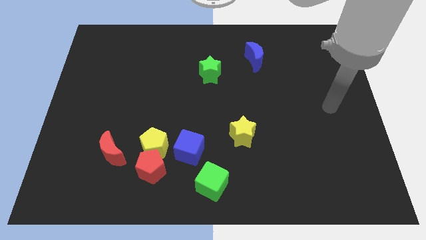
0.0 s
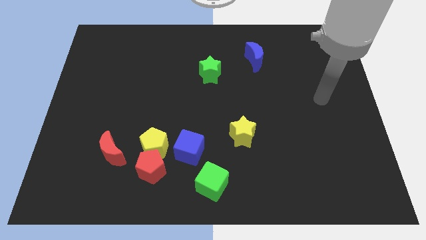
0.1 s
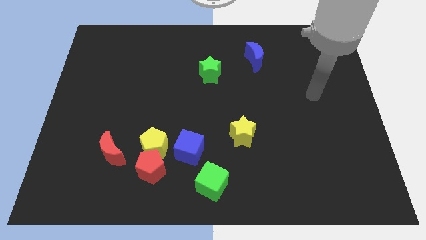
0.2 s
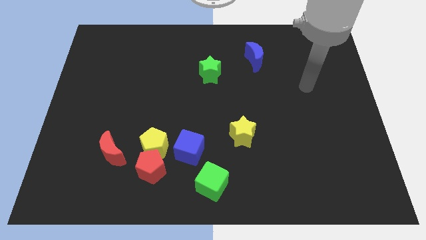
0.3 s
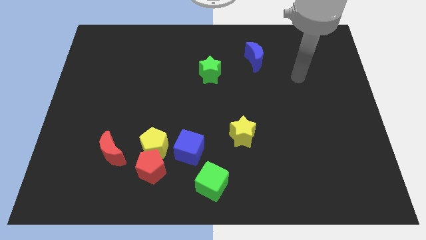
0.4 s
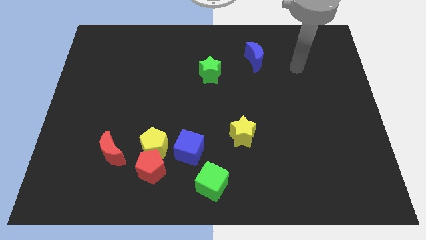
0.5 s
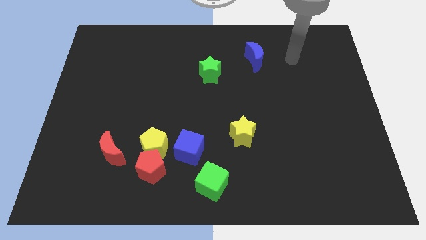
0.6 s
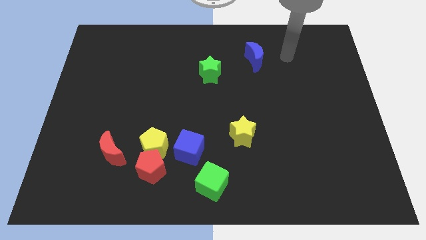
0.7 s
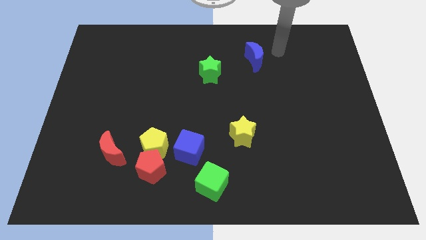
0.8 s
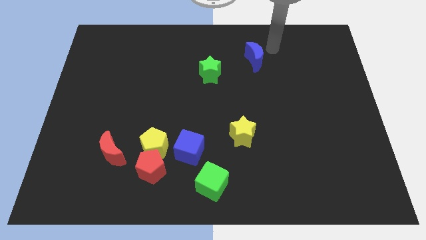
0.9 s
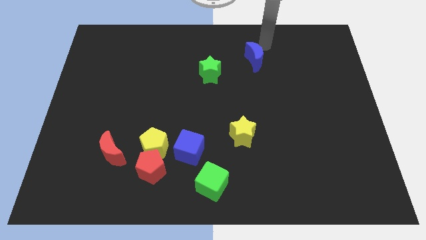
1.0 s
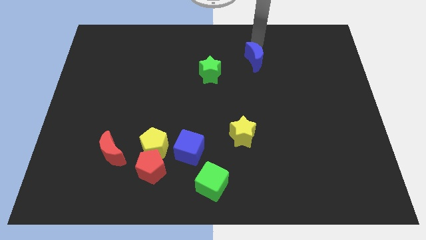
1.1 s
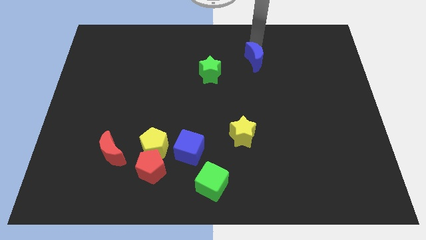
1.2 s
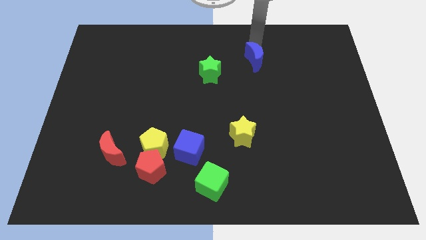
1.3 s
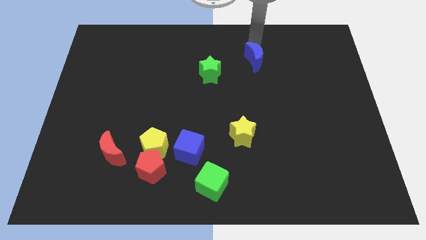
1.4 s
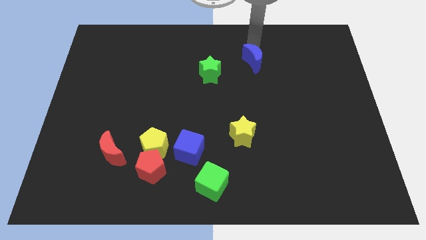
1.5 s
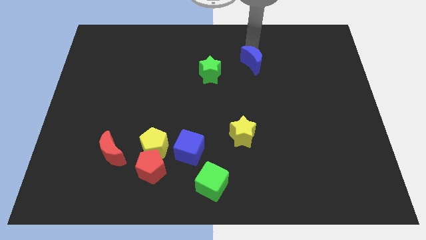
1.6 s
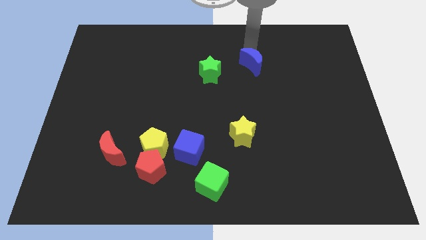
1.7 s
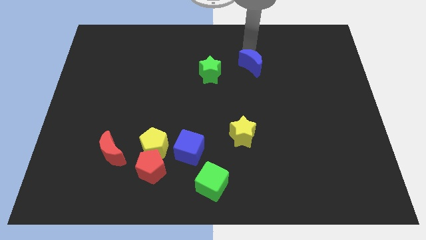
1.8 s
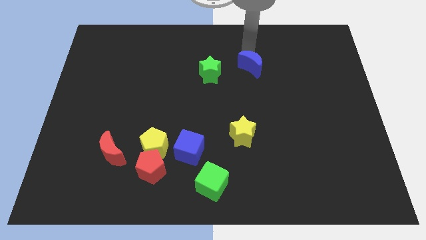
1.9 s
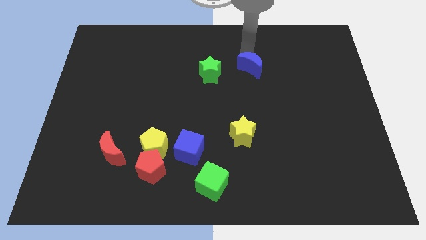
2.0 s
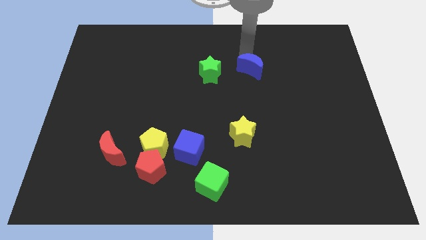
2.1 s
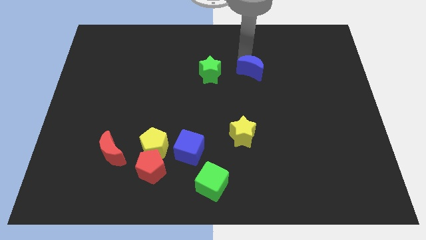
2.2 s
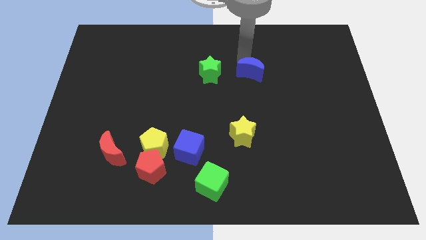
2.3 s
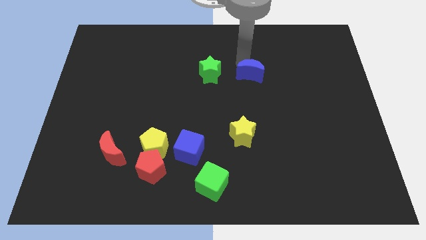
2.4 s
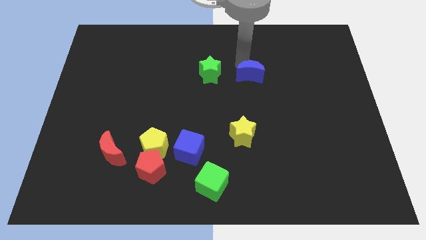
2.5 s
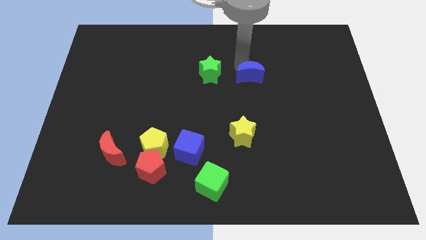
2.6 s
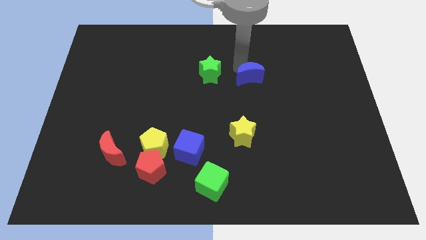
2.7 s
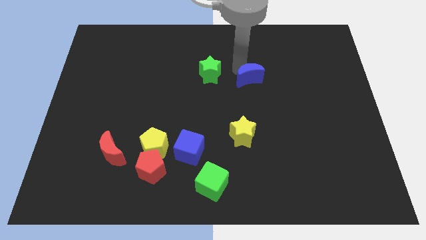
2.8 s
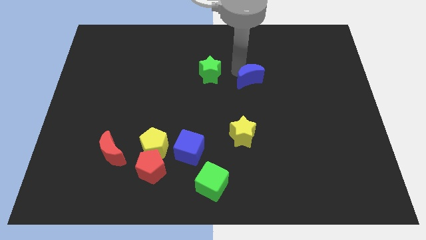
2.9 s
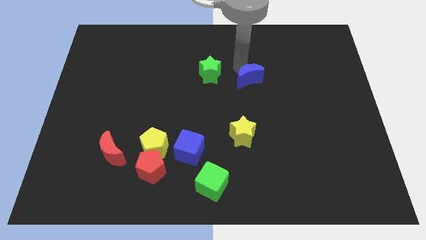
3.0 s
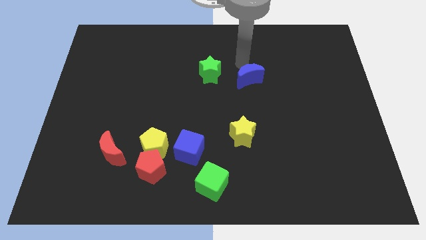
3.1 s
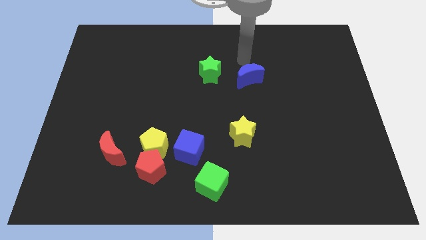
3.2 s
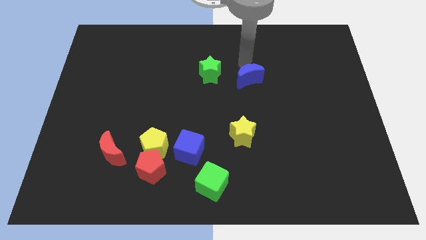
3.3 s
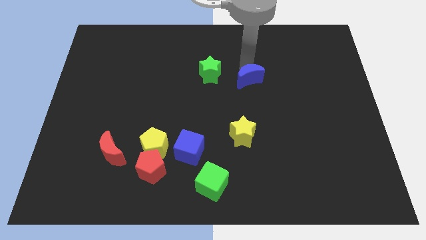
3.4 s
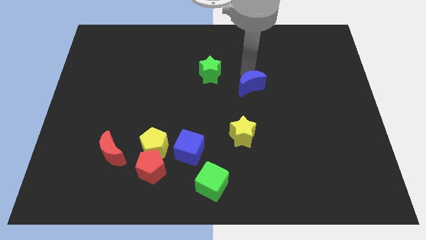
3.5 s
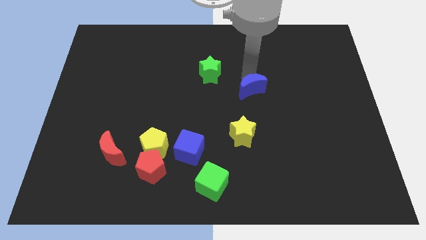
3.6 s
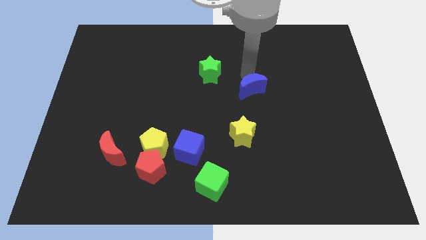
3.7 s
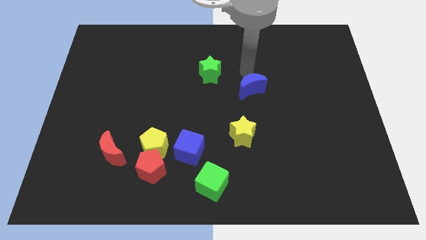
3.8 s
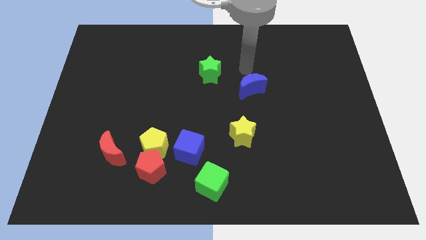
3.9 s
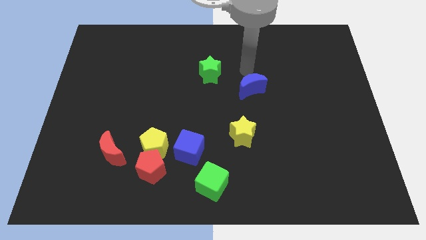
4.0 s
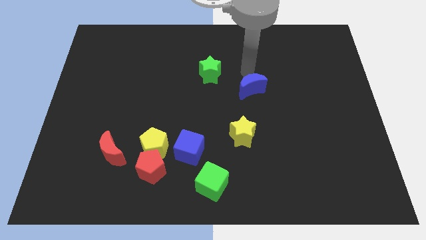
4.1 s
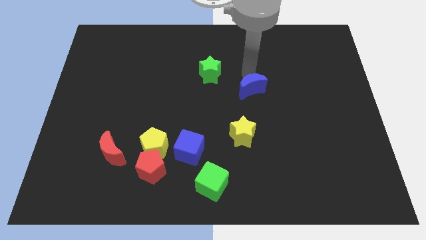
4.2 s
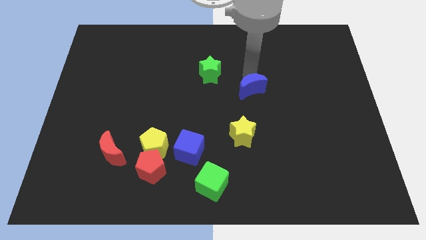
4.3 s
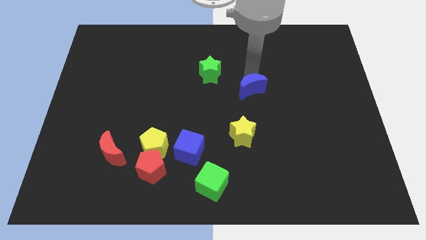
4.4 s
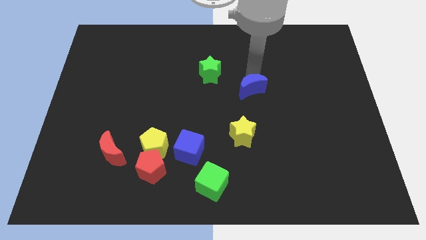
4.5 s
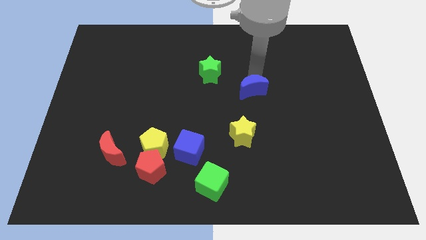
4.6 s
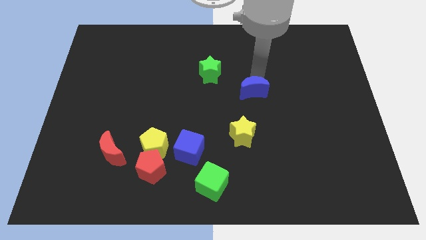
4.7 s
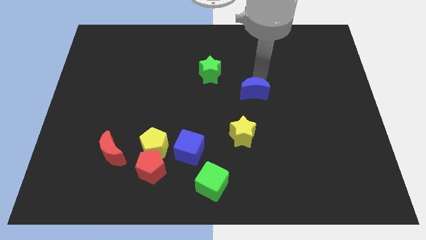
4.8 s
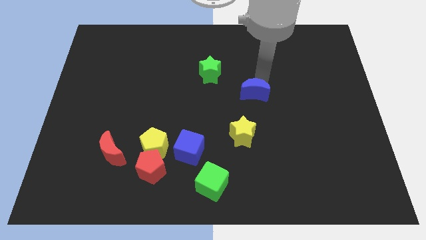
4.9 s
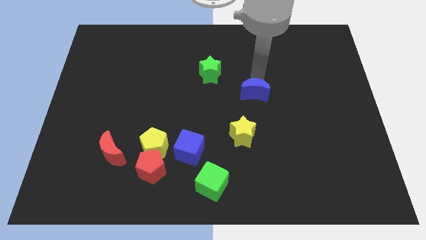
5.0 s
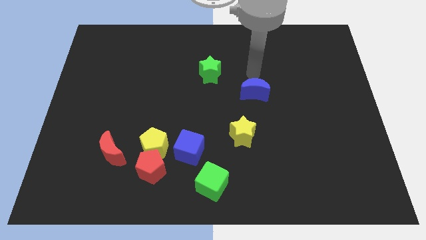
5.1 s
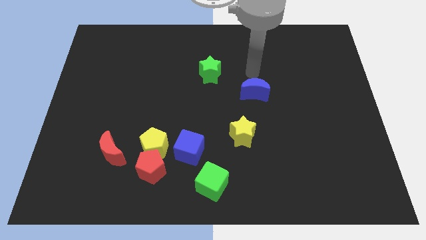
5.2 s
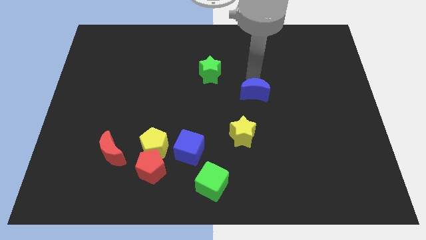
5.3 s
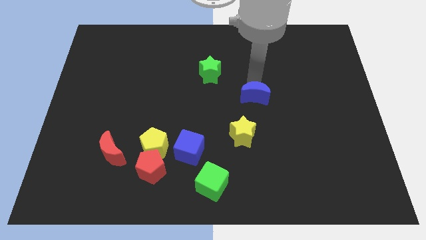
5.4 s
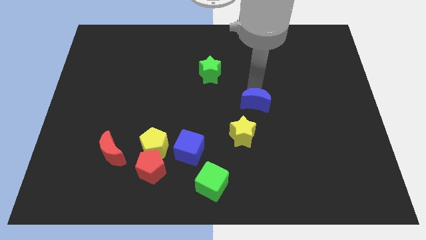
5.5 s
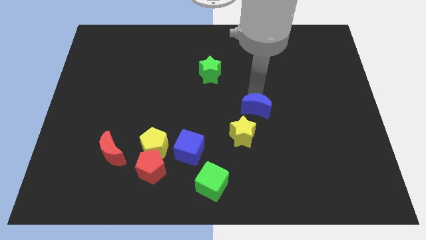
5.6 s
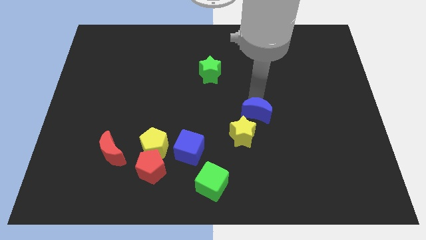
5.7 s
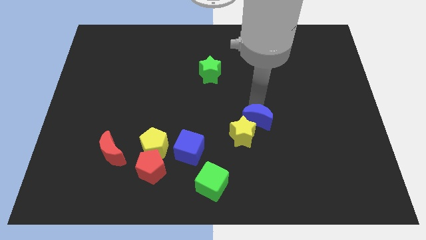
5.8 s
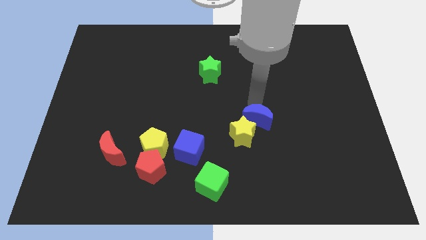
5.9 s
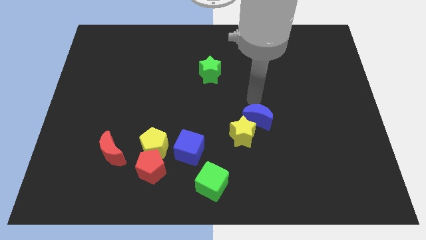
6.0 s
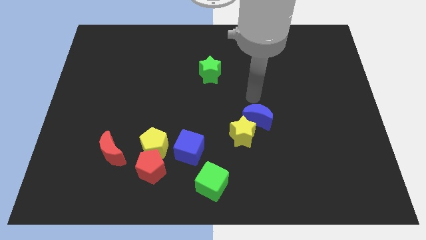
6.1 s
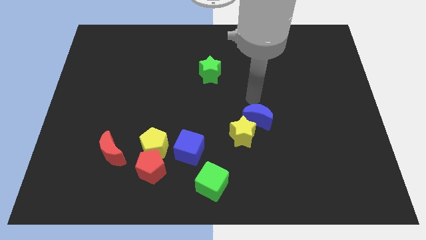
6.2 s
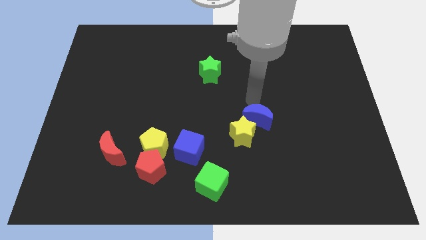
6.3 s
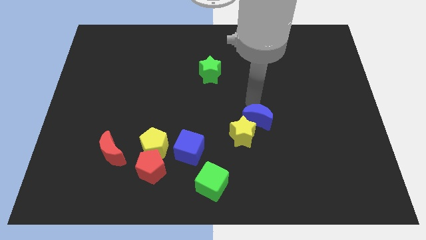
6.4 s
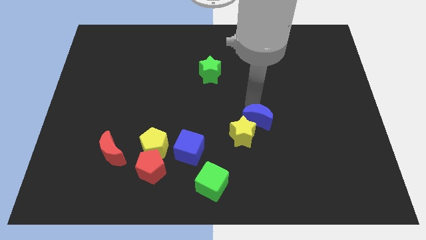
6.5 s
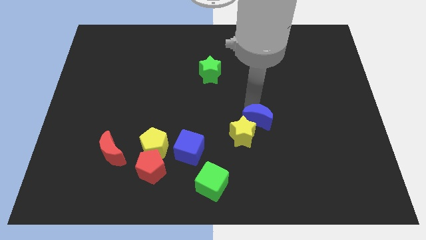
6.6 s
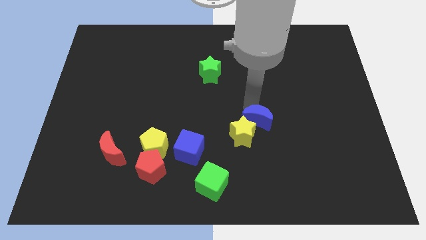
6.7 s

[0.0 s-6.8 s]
push the blue moon downwards

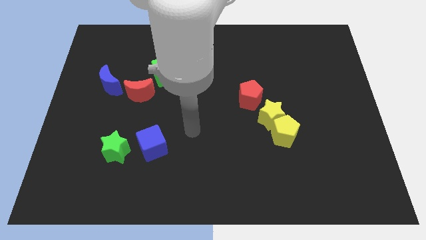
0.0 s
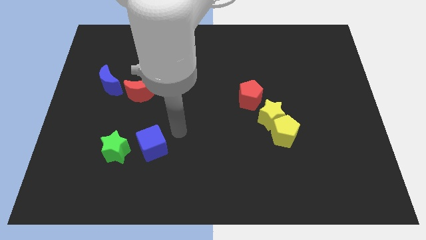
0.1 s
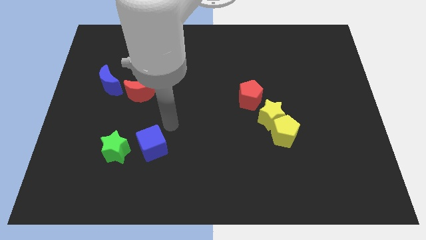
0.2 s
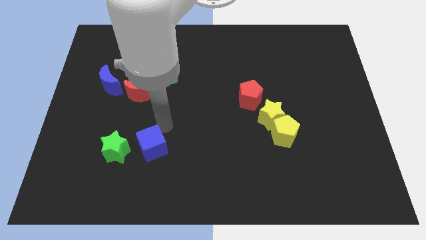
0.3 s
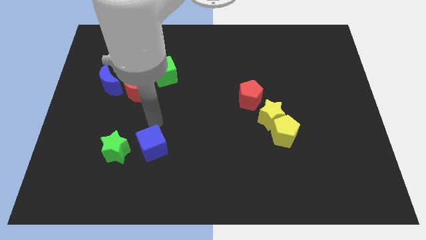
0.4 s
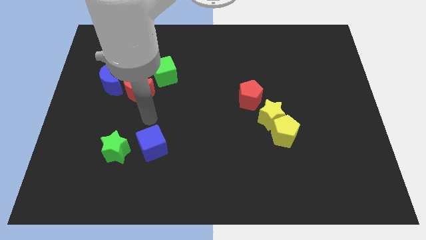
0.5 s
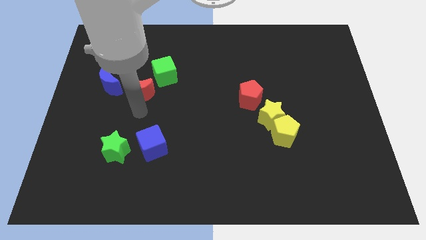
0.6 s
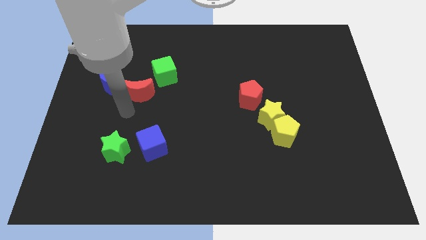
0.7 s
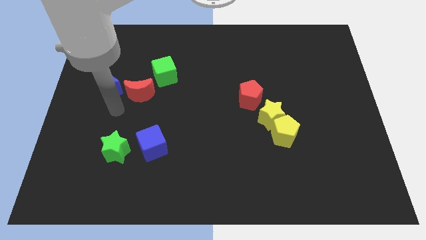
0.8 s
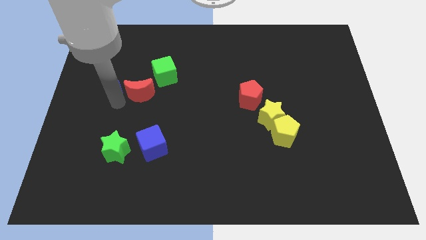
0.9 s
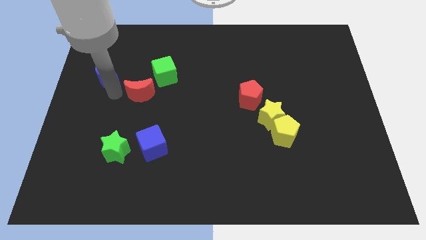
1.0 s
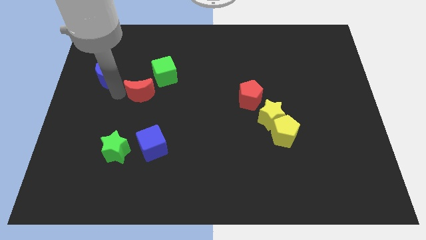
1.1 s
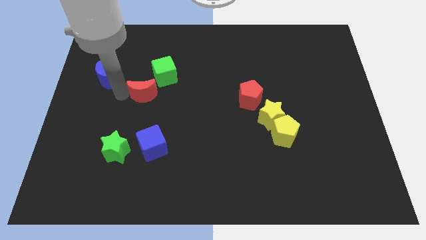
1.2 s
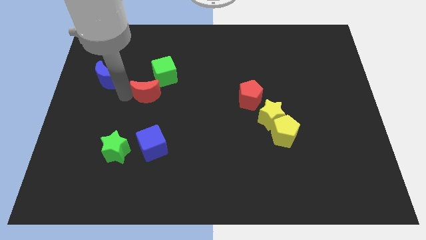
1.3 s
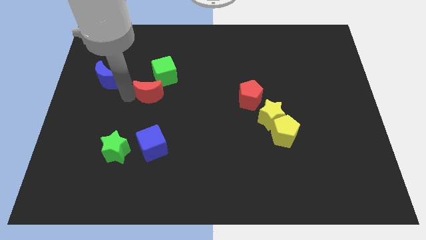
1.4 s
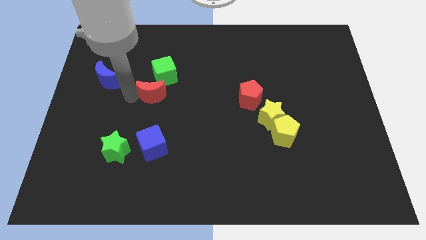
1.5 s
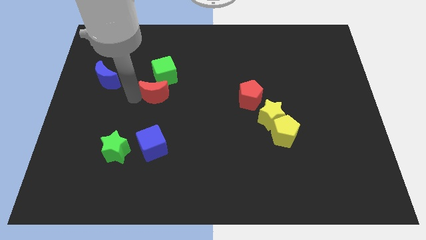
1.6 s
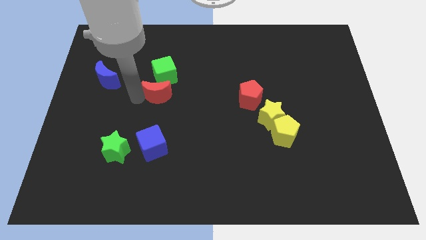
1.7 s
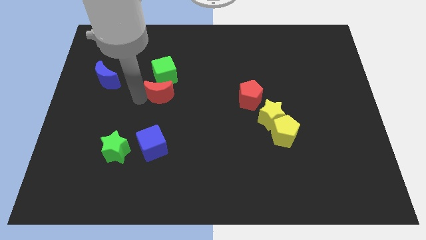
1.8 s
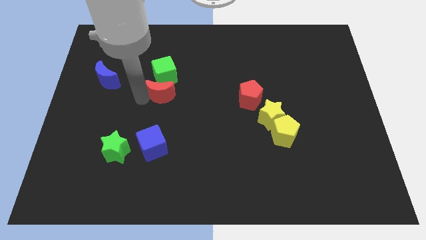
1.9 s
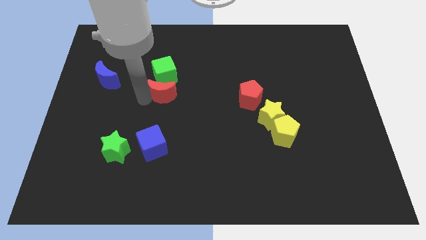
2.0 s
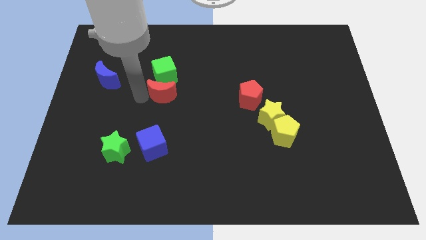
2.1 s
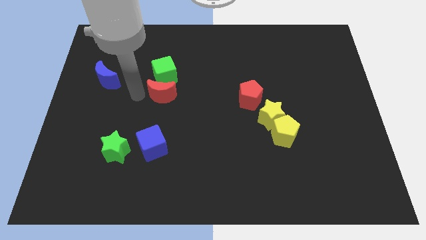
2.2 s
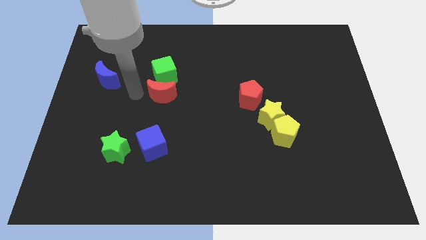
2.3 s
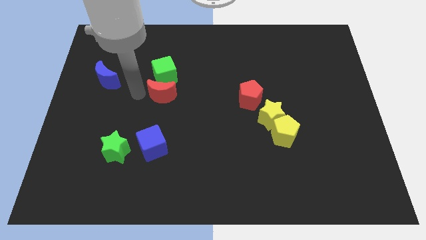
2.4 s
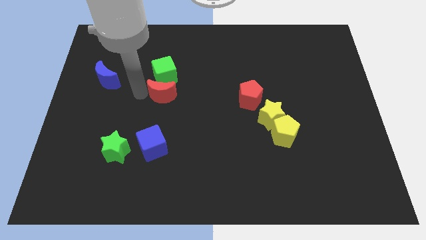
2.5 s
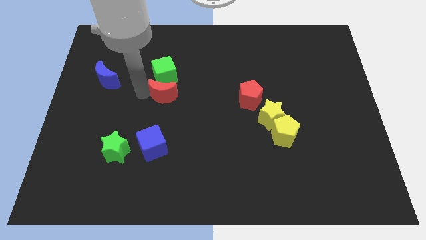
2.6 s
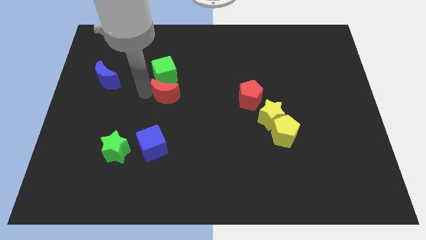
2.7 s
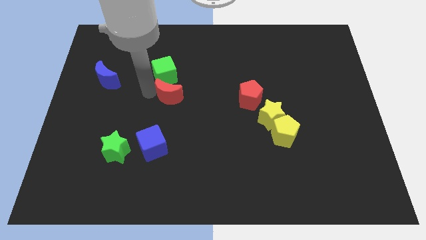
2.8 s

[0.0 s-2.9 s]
move the red moon a bit to the right
